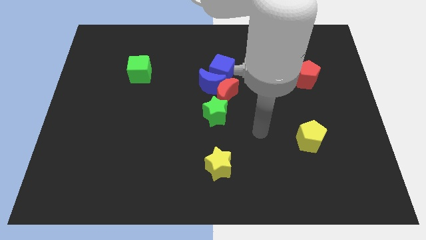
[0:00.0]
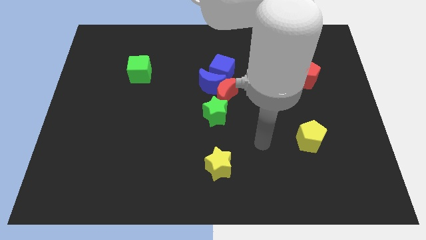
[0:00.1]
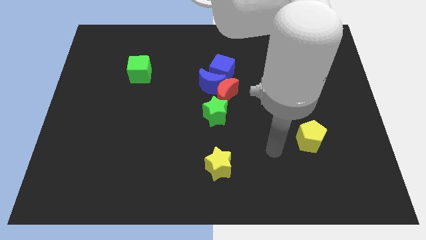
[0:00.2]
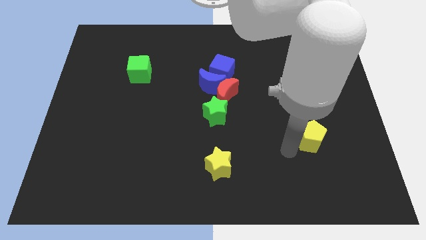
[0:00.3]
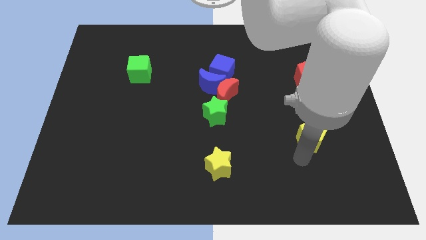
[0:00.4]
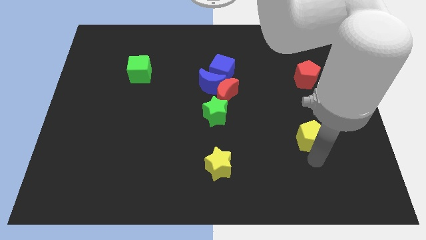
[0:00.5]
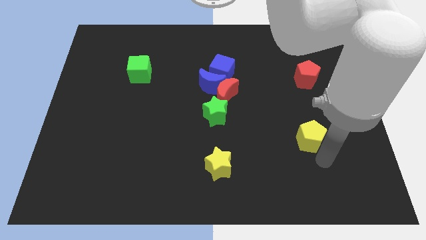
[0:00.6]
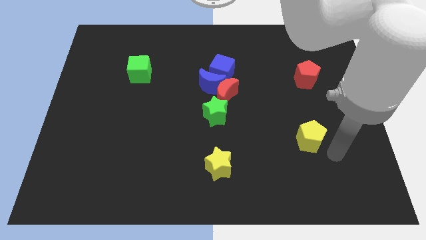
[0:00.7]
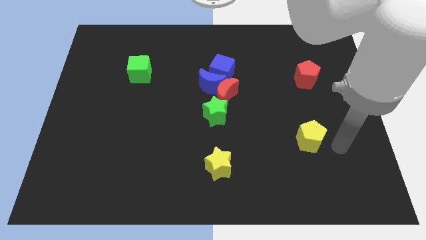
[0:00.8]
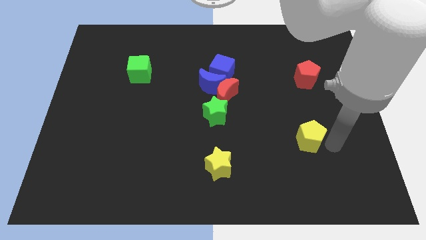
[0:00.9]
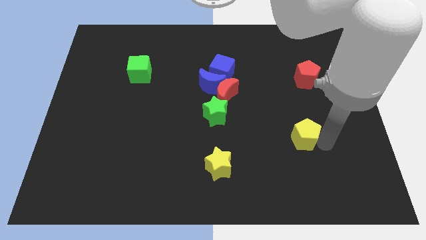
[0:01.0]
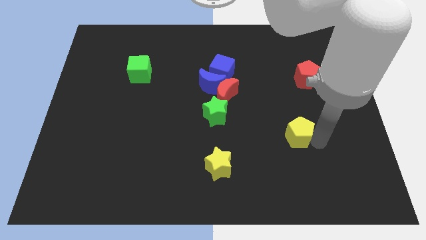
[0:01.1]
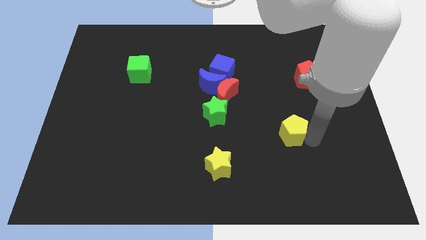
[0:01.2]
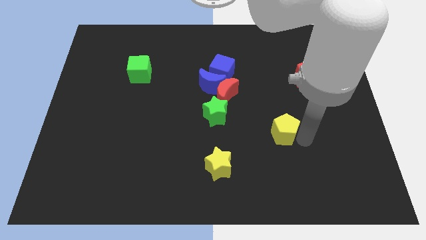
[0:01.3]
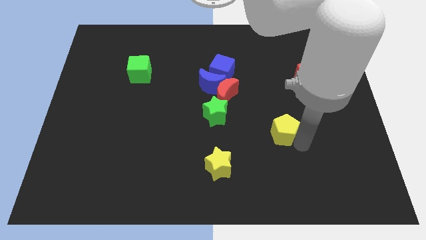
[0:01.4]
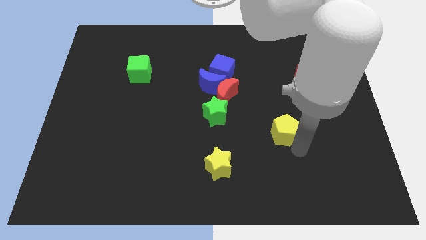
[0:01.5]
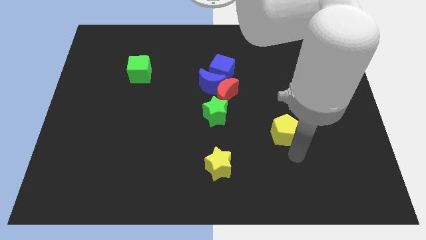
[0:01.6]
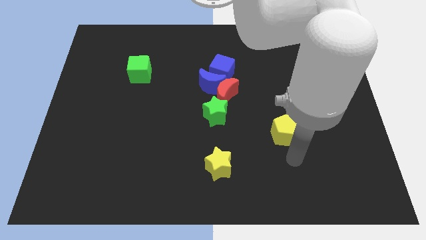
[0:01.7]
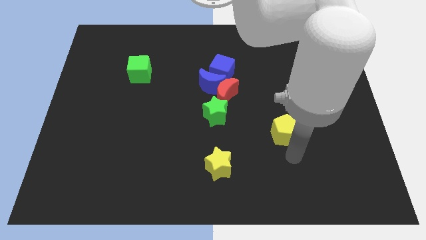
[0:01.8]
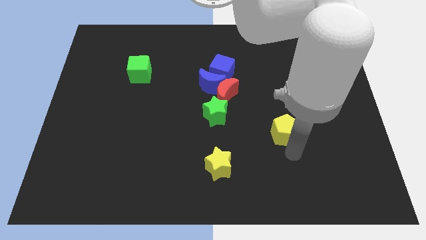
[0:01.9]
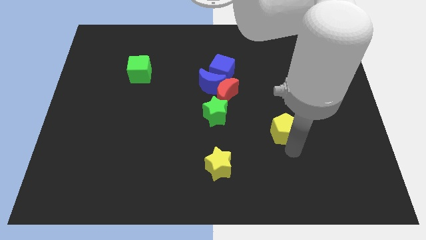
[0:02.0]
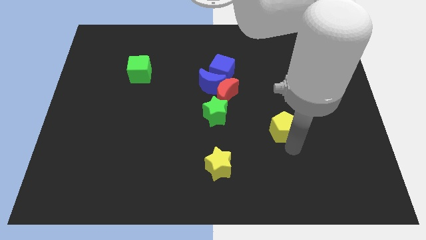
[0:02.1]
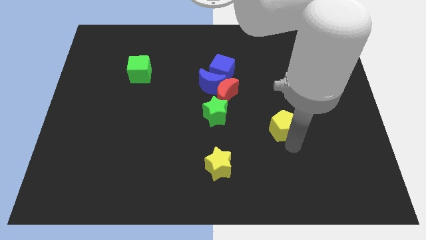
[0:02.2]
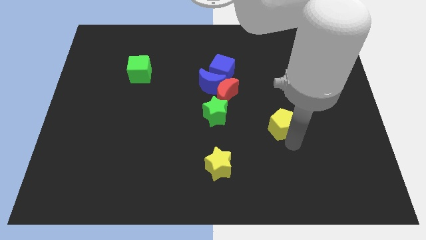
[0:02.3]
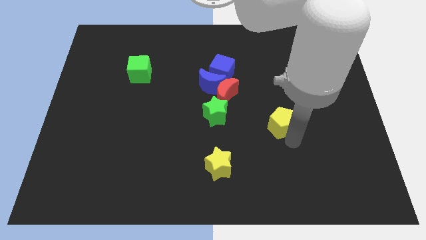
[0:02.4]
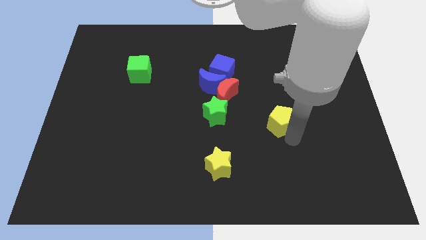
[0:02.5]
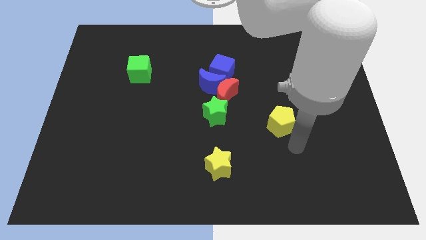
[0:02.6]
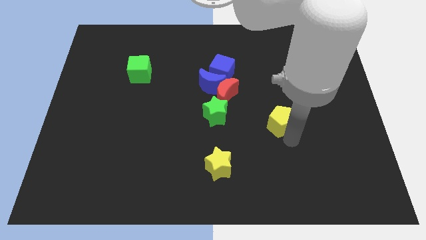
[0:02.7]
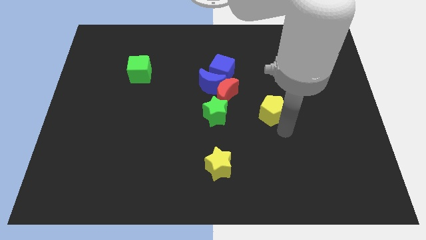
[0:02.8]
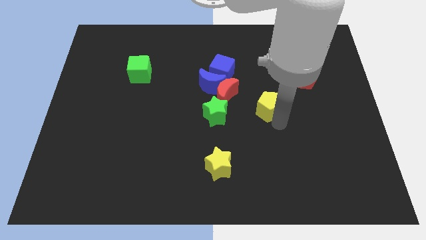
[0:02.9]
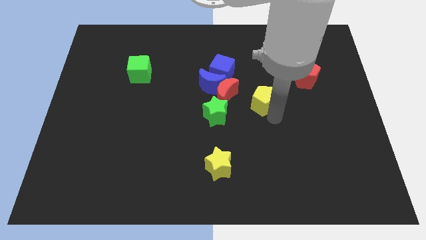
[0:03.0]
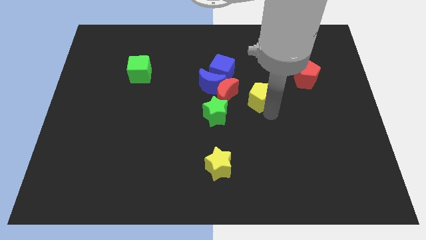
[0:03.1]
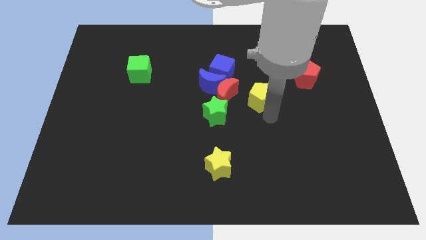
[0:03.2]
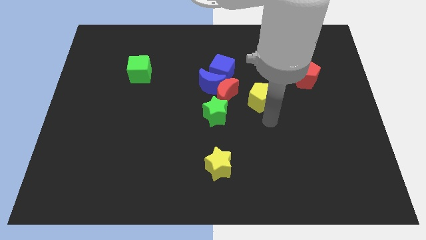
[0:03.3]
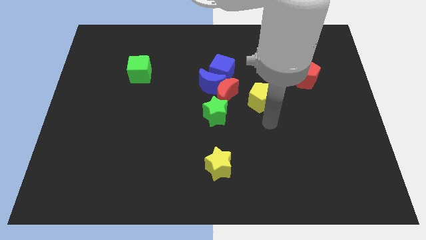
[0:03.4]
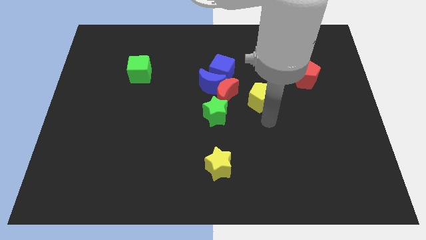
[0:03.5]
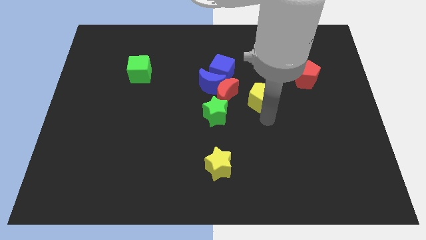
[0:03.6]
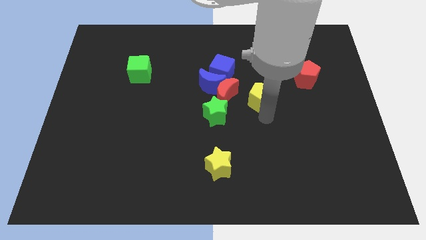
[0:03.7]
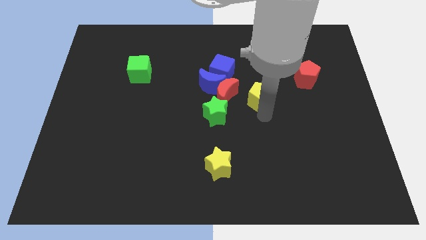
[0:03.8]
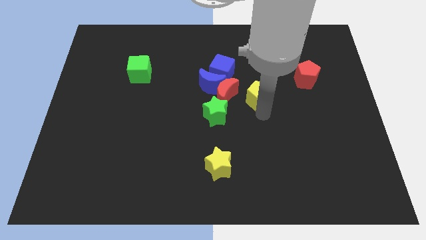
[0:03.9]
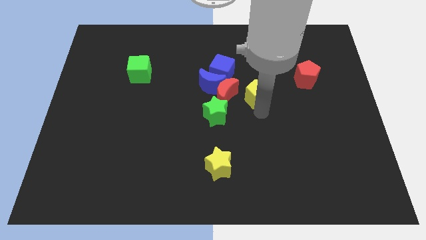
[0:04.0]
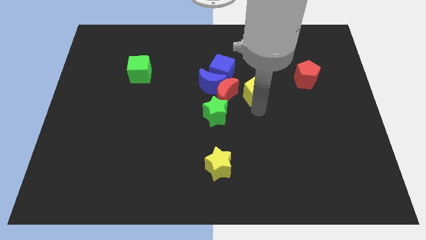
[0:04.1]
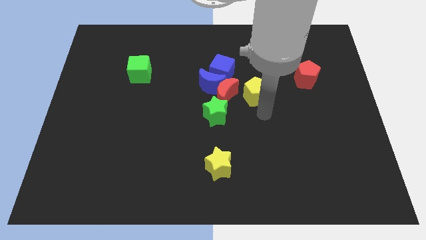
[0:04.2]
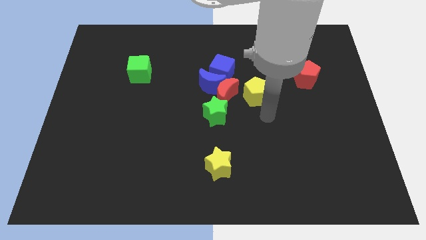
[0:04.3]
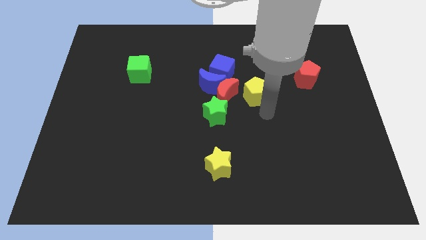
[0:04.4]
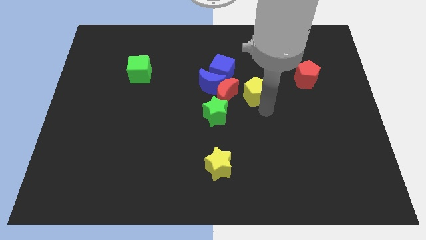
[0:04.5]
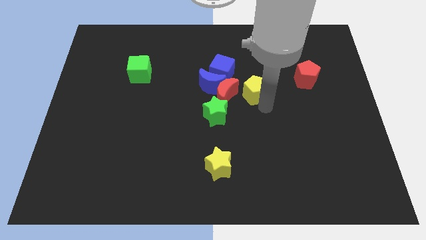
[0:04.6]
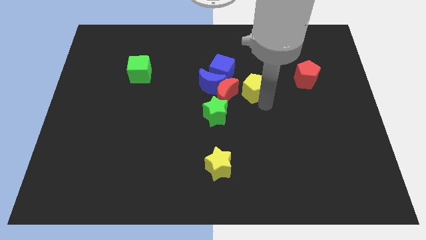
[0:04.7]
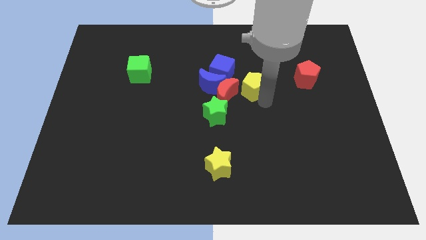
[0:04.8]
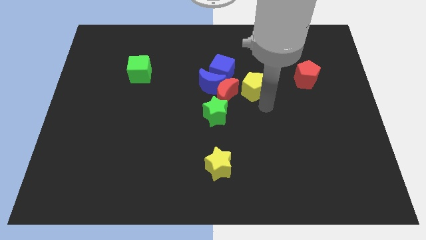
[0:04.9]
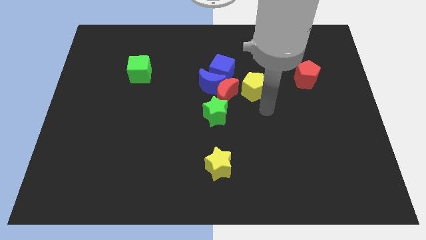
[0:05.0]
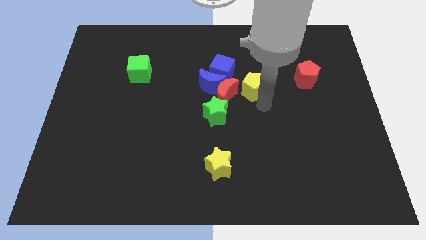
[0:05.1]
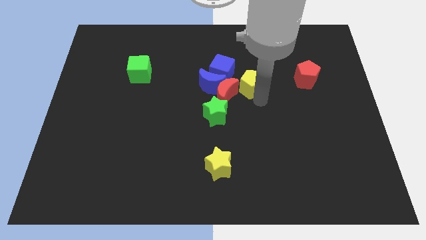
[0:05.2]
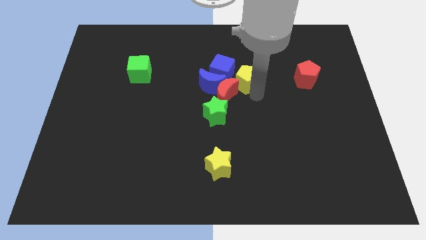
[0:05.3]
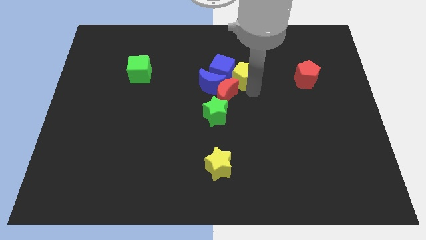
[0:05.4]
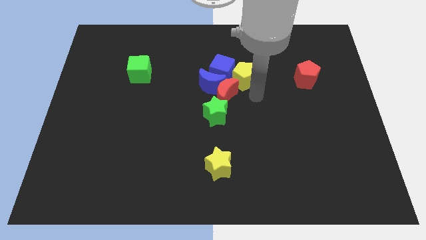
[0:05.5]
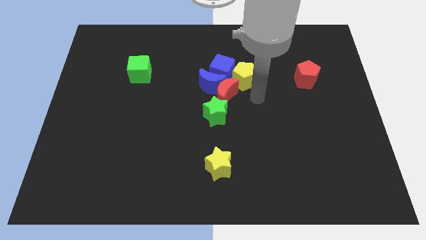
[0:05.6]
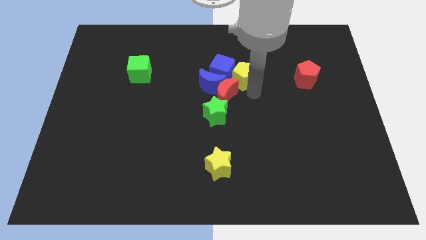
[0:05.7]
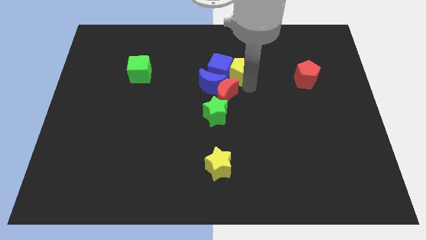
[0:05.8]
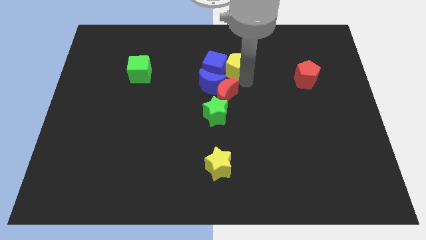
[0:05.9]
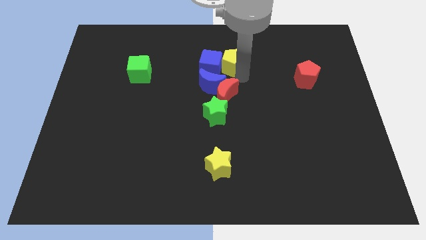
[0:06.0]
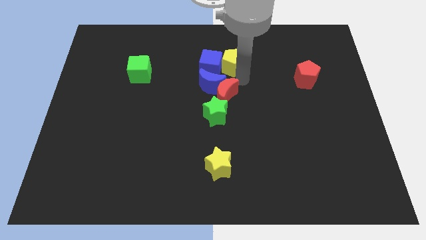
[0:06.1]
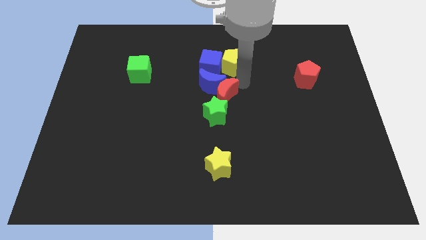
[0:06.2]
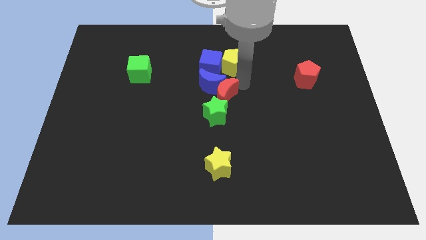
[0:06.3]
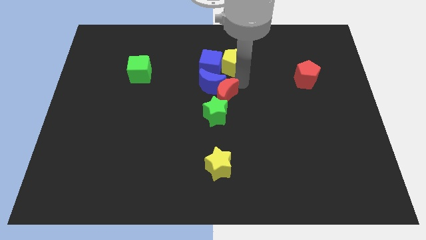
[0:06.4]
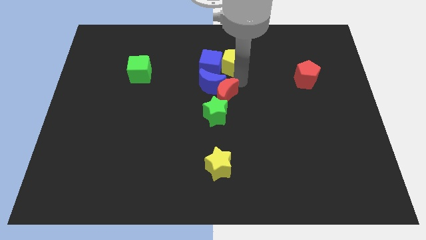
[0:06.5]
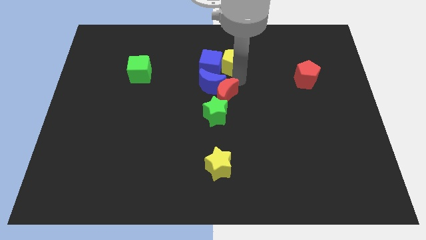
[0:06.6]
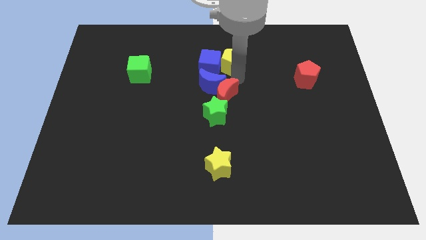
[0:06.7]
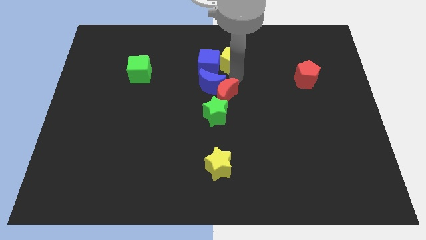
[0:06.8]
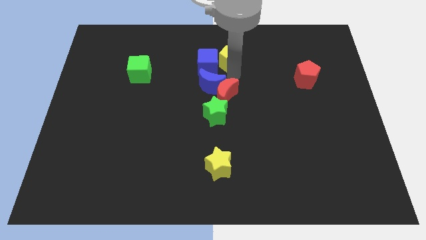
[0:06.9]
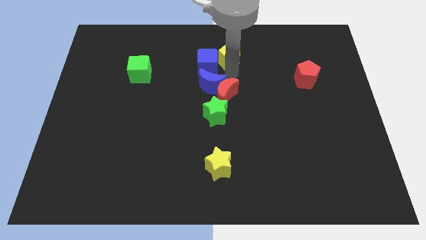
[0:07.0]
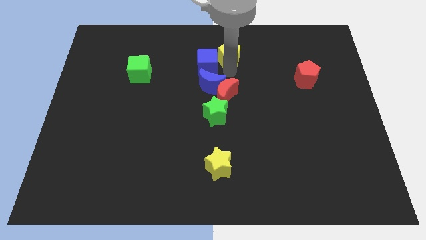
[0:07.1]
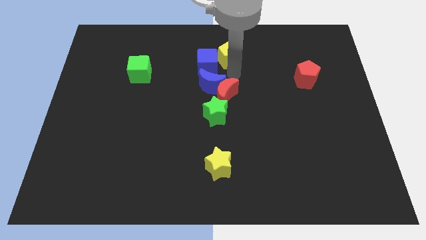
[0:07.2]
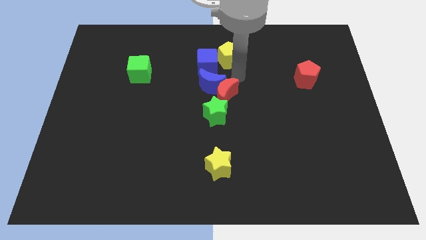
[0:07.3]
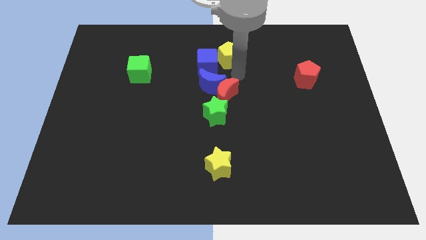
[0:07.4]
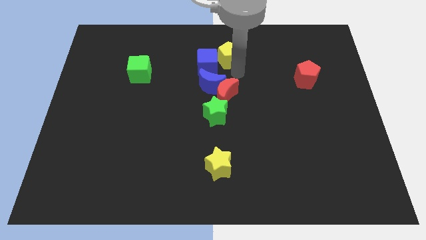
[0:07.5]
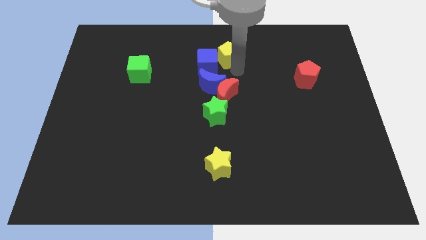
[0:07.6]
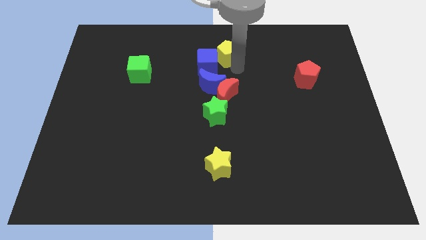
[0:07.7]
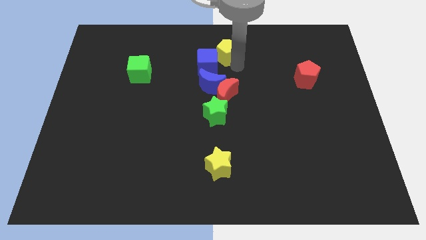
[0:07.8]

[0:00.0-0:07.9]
slide the yellow pentagon to the top
